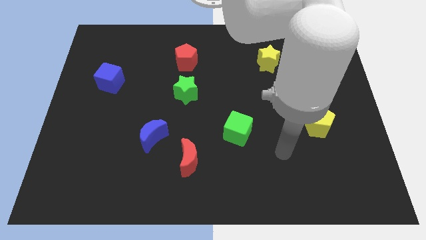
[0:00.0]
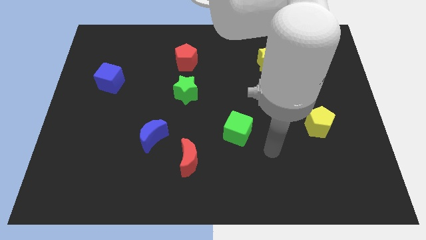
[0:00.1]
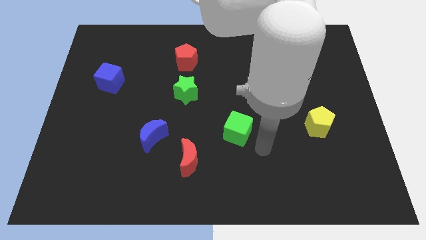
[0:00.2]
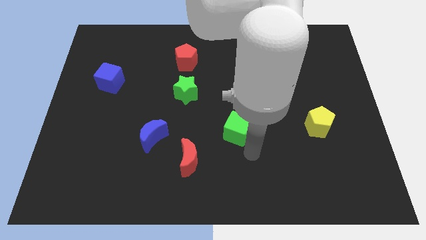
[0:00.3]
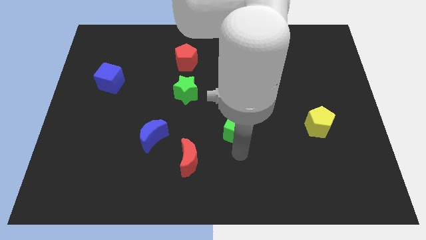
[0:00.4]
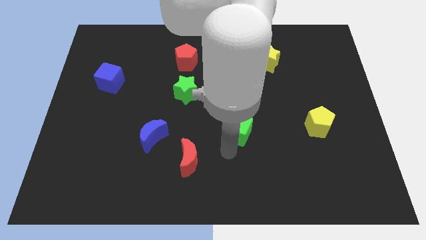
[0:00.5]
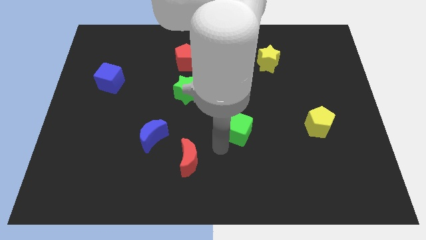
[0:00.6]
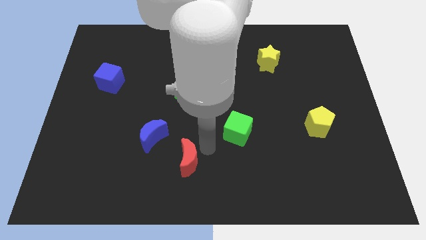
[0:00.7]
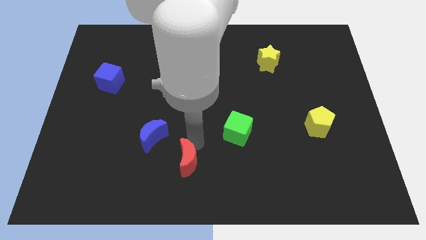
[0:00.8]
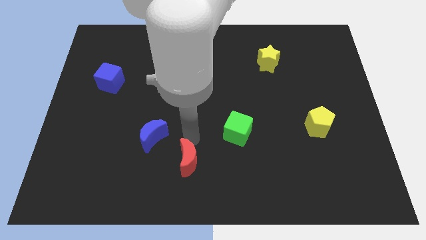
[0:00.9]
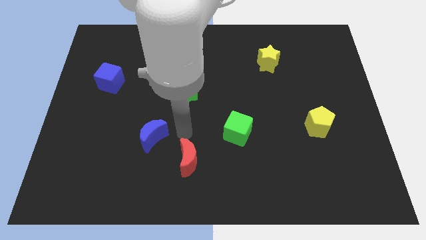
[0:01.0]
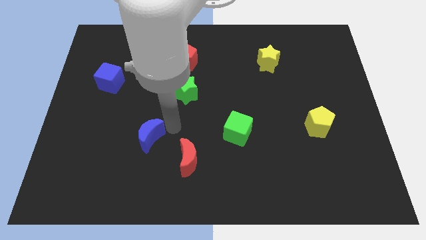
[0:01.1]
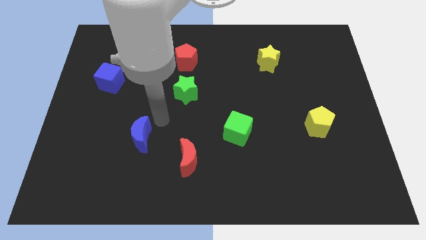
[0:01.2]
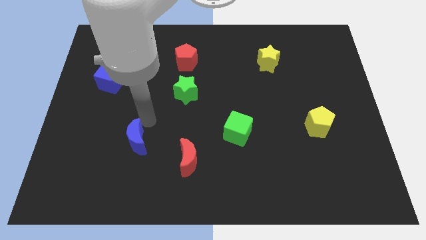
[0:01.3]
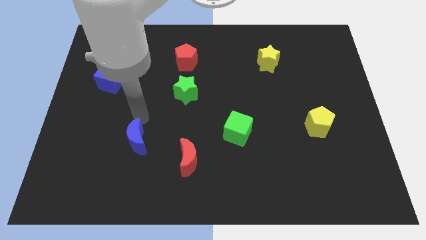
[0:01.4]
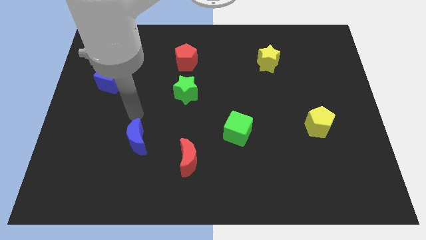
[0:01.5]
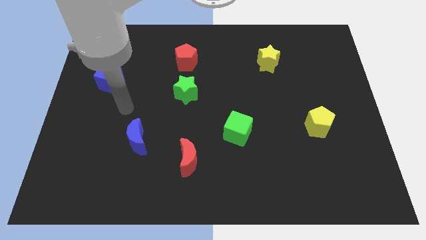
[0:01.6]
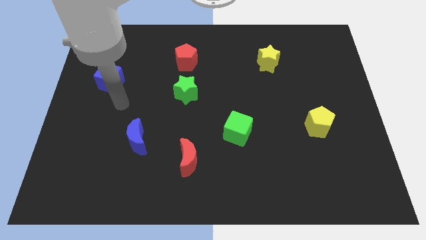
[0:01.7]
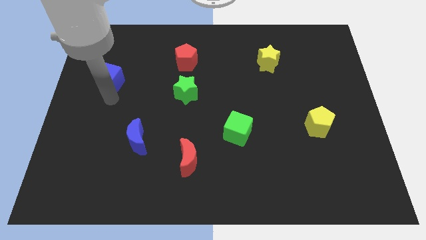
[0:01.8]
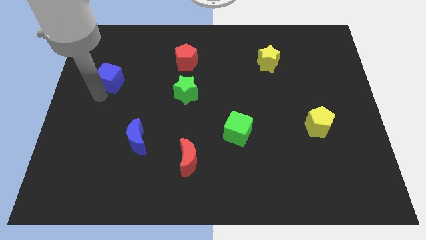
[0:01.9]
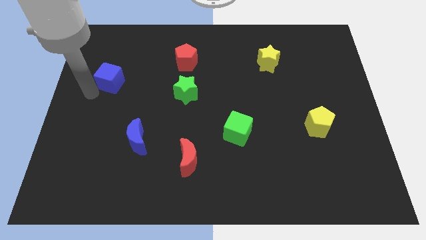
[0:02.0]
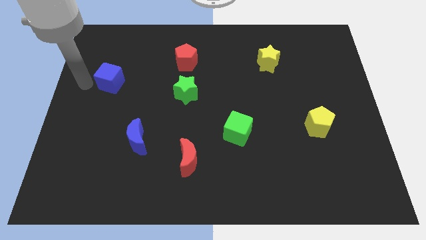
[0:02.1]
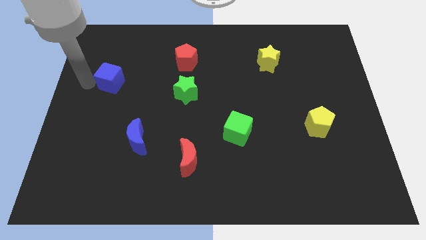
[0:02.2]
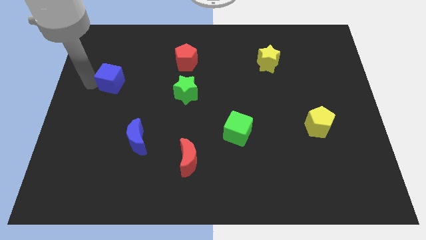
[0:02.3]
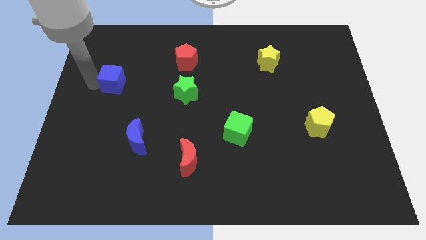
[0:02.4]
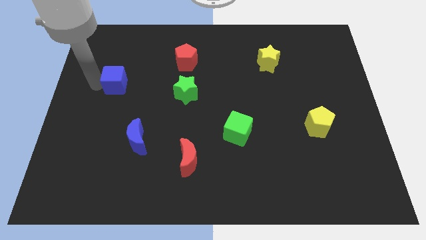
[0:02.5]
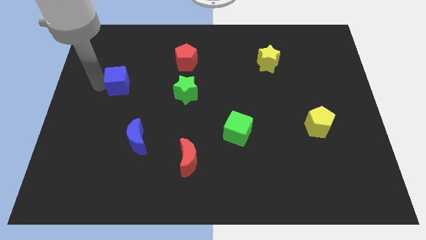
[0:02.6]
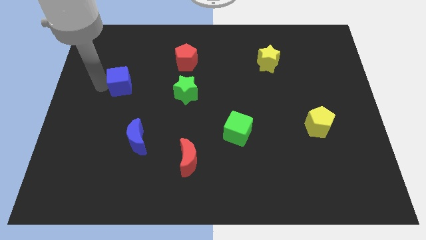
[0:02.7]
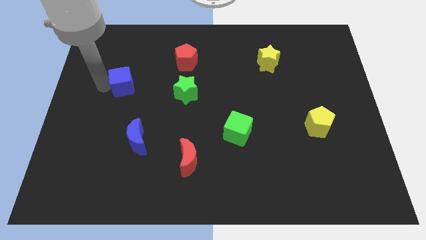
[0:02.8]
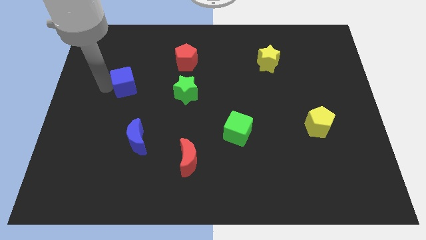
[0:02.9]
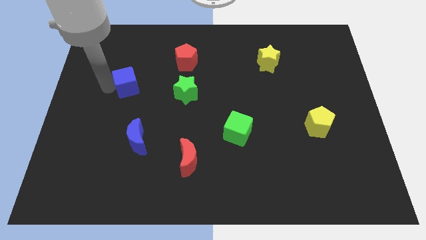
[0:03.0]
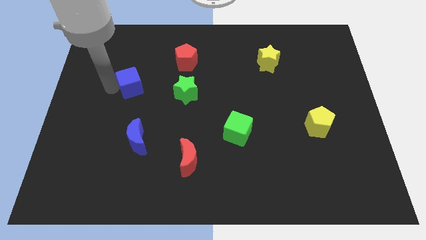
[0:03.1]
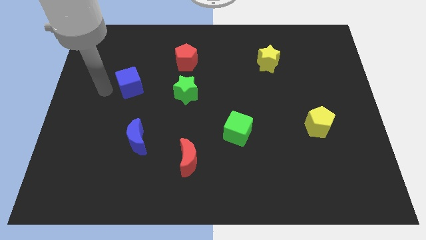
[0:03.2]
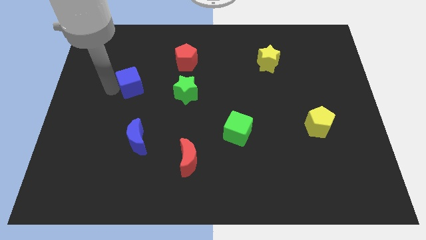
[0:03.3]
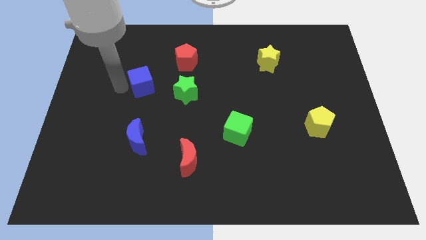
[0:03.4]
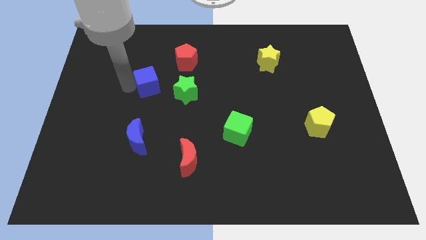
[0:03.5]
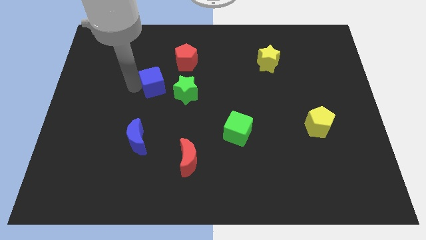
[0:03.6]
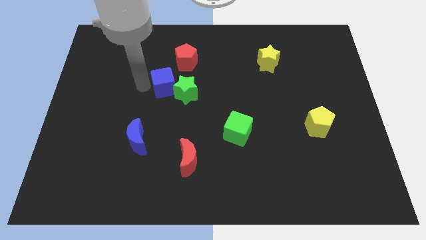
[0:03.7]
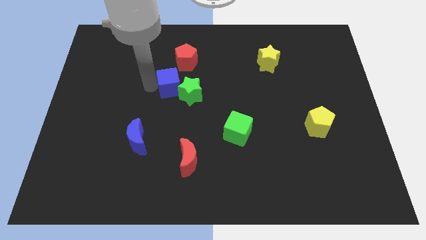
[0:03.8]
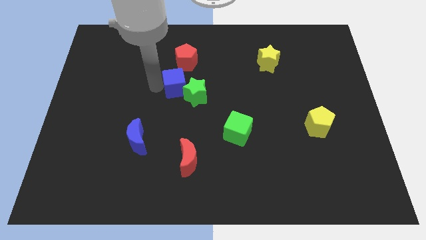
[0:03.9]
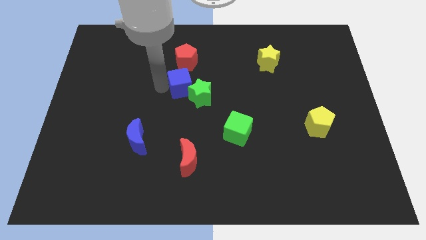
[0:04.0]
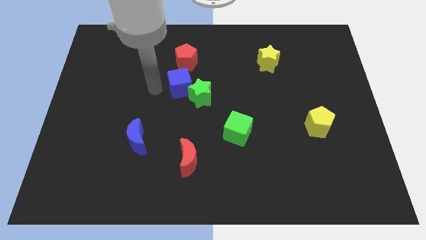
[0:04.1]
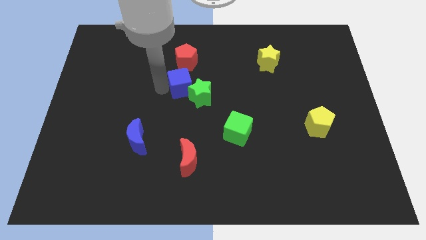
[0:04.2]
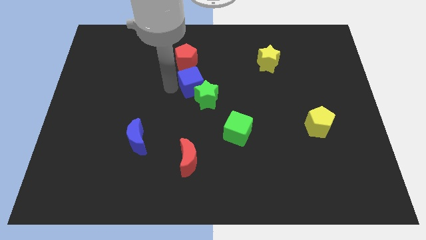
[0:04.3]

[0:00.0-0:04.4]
move the blue cube to the right

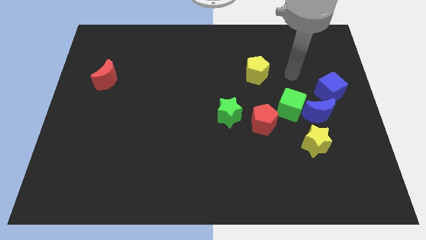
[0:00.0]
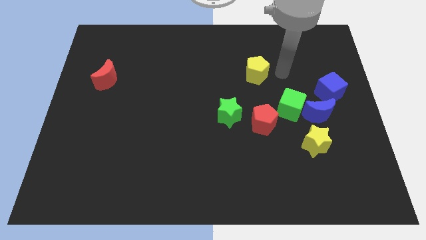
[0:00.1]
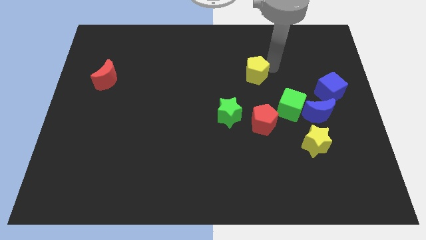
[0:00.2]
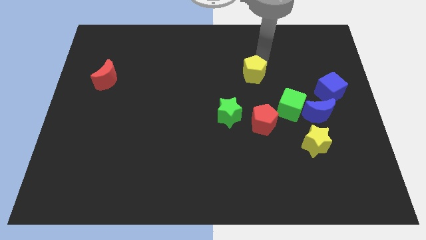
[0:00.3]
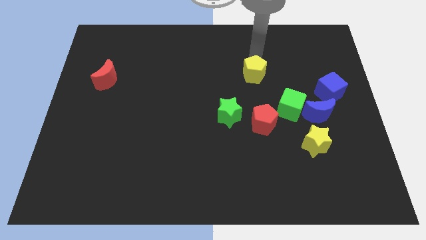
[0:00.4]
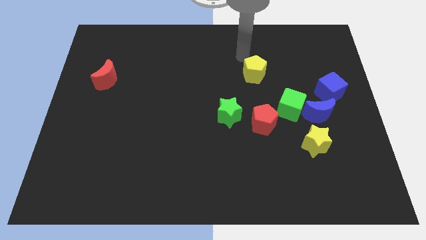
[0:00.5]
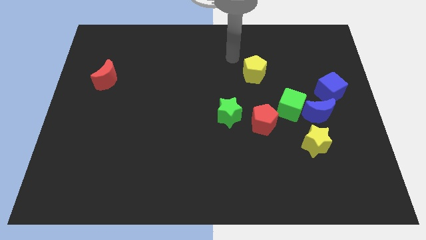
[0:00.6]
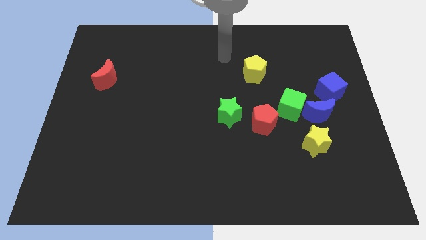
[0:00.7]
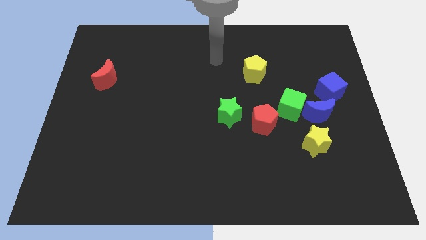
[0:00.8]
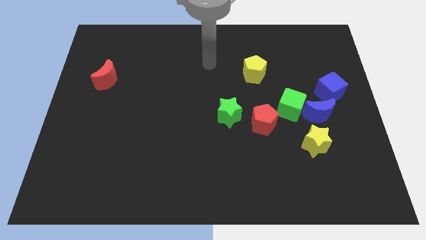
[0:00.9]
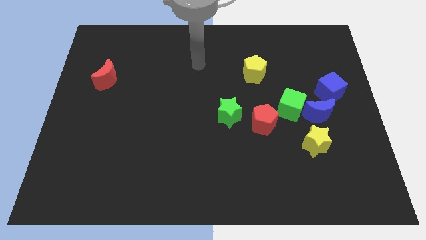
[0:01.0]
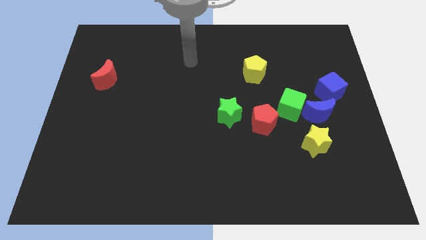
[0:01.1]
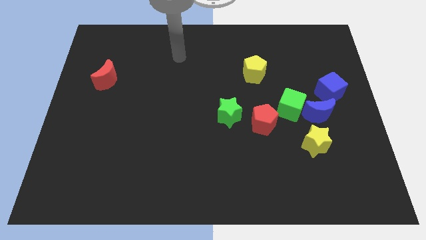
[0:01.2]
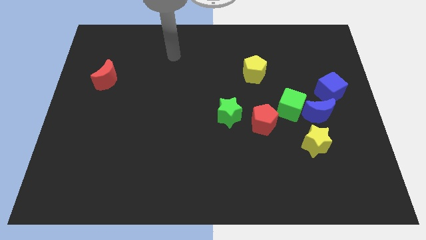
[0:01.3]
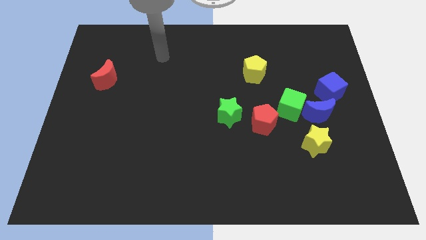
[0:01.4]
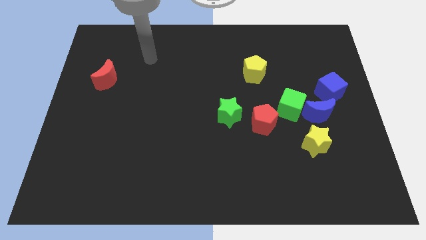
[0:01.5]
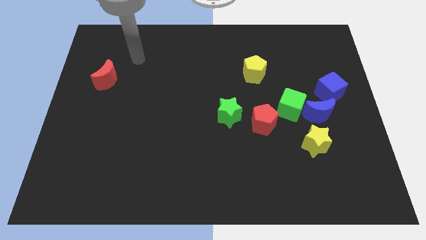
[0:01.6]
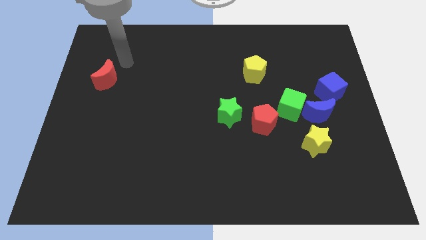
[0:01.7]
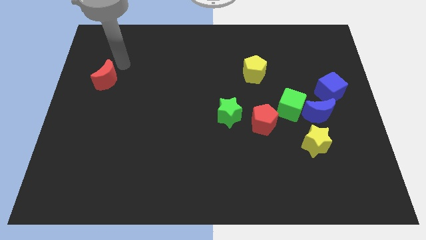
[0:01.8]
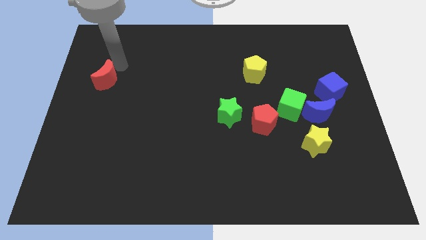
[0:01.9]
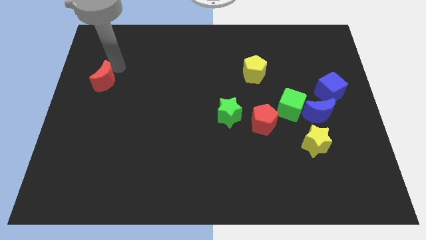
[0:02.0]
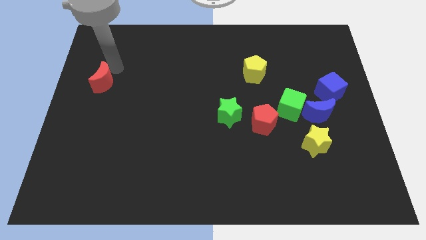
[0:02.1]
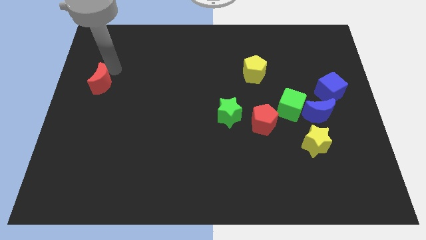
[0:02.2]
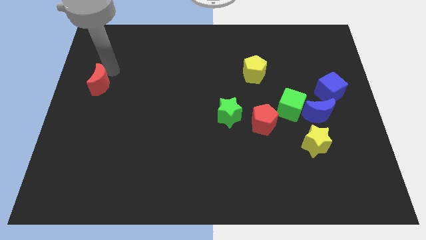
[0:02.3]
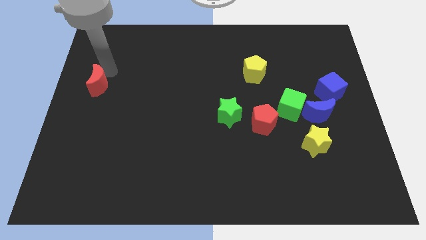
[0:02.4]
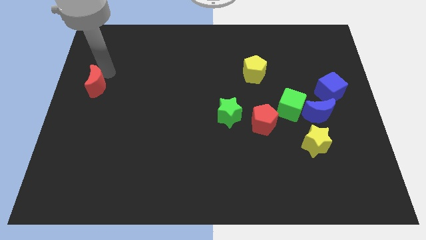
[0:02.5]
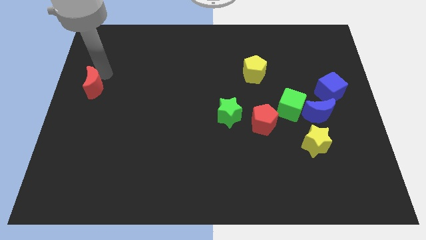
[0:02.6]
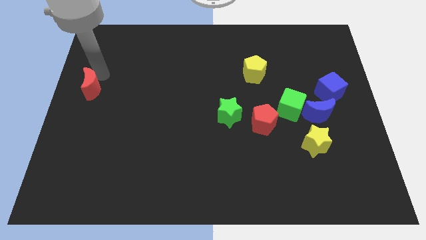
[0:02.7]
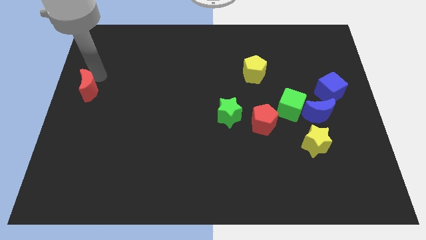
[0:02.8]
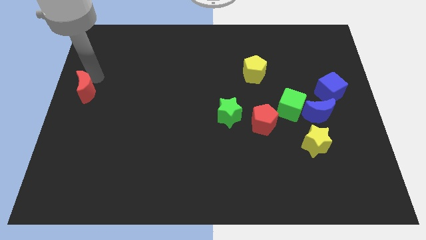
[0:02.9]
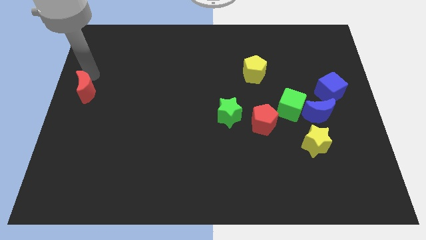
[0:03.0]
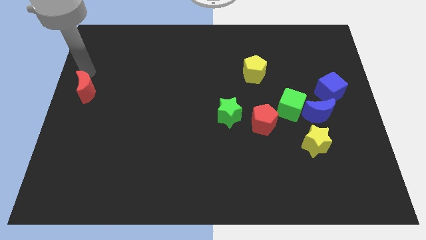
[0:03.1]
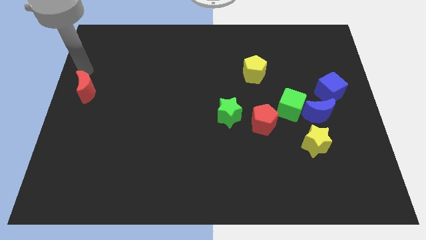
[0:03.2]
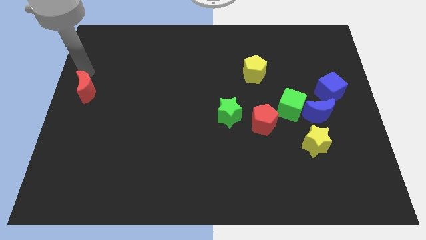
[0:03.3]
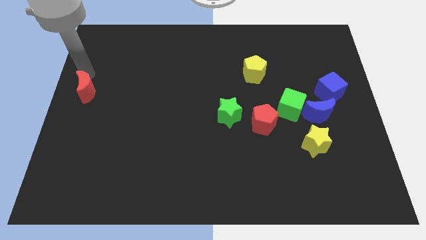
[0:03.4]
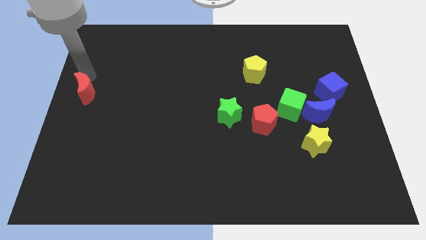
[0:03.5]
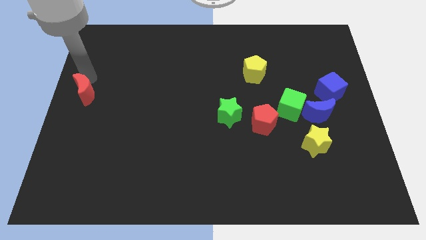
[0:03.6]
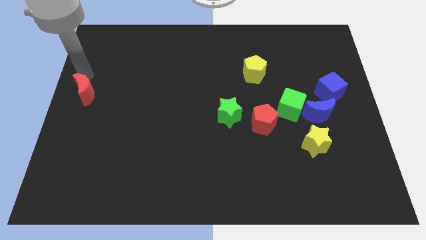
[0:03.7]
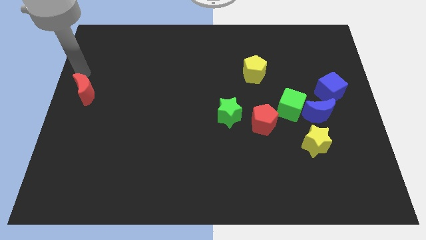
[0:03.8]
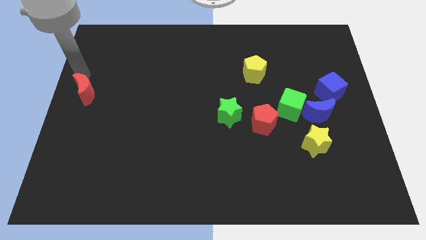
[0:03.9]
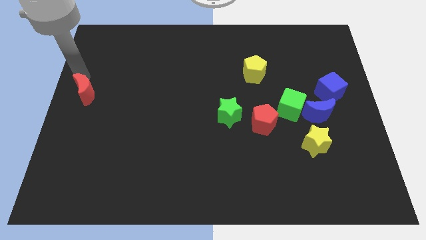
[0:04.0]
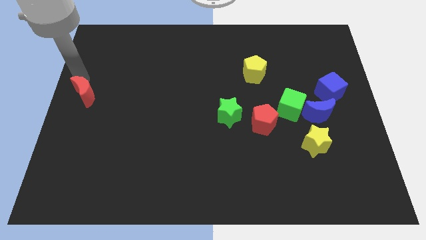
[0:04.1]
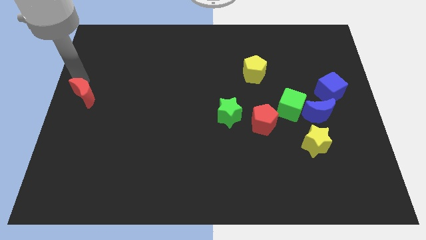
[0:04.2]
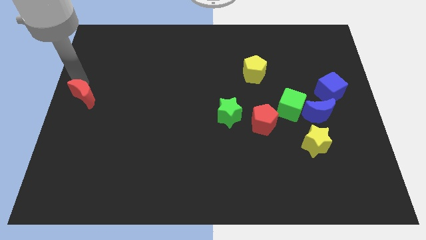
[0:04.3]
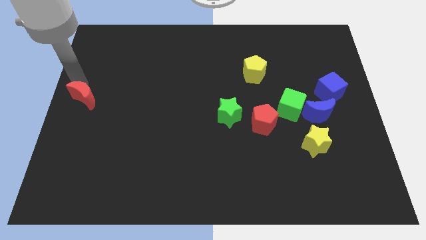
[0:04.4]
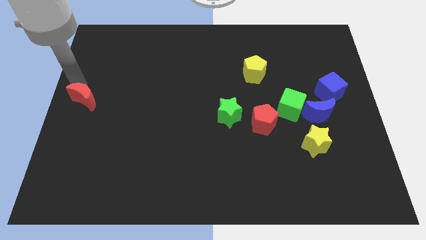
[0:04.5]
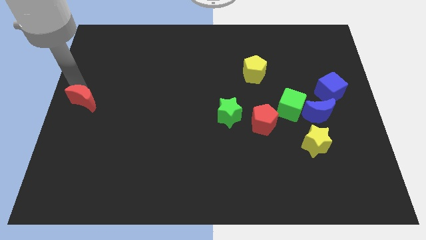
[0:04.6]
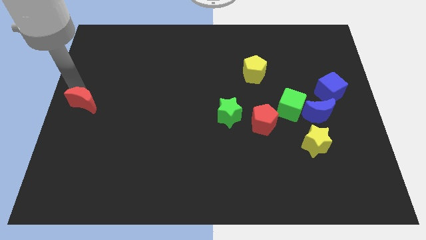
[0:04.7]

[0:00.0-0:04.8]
slide the red moon a bit down
